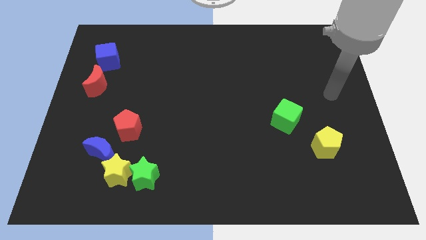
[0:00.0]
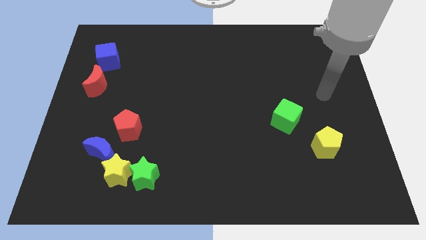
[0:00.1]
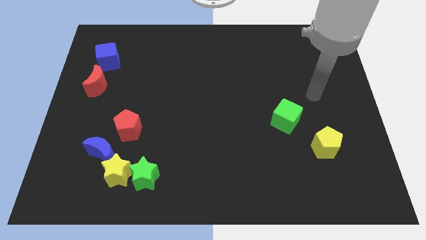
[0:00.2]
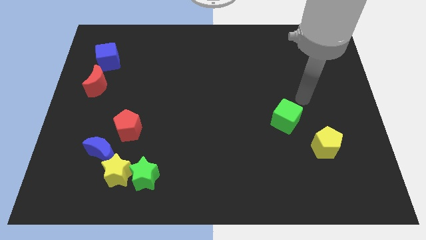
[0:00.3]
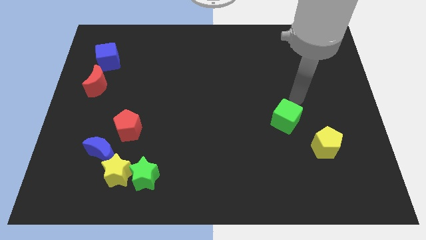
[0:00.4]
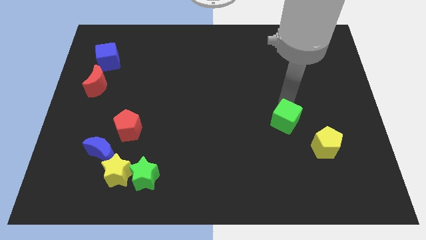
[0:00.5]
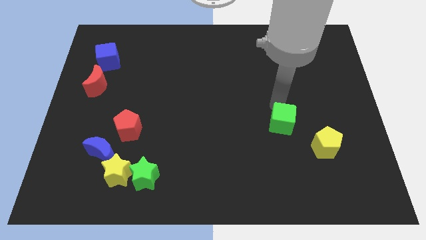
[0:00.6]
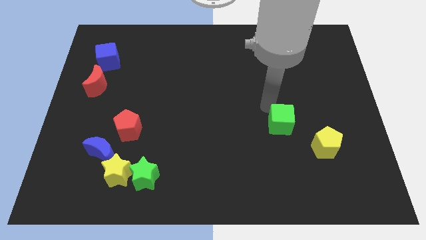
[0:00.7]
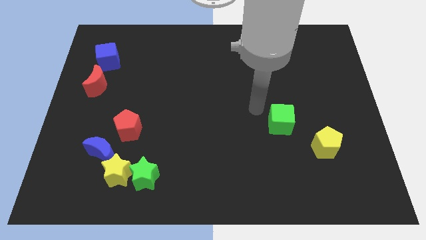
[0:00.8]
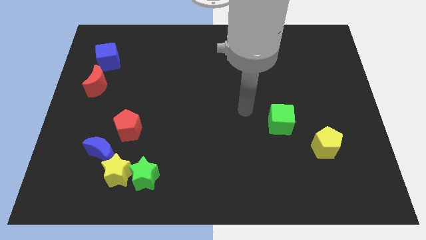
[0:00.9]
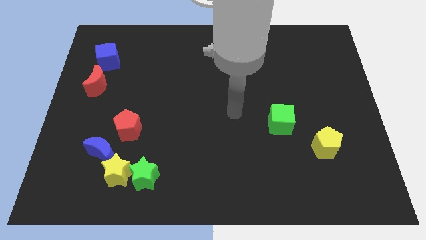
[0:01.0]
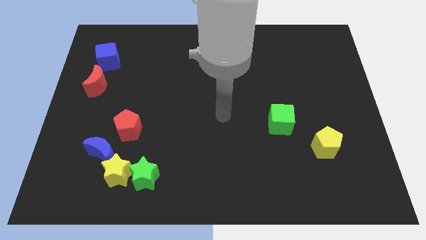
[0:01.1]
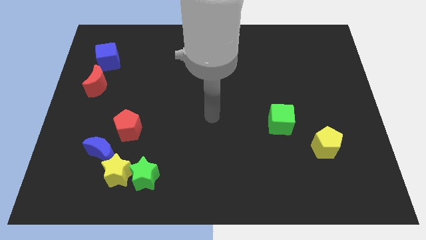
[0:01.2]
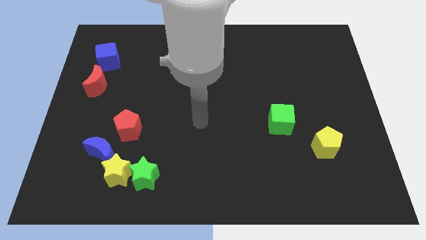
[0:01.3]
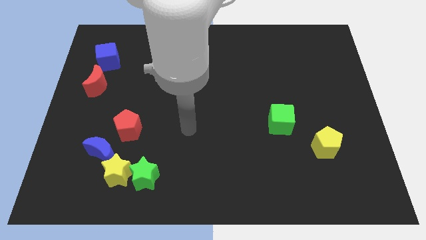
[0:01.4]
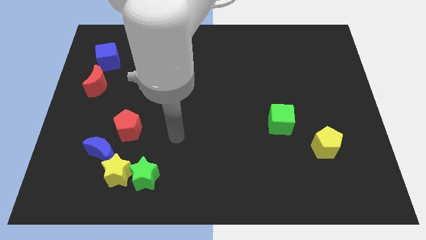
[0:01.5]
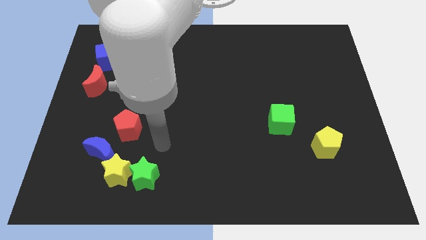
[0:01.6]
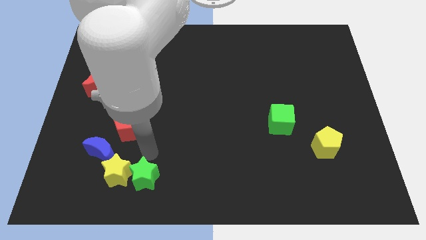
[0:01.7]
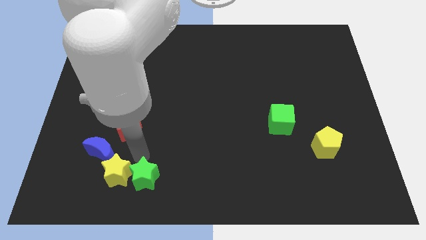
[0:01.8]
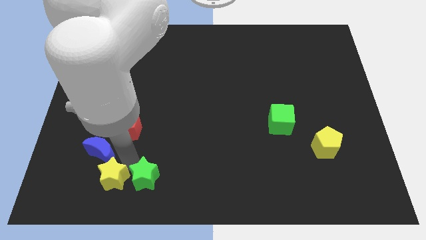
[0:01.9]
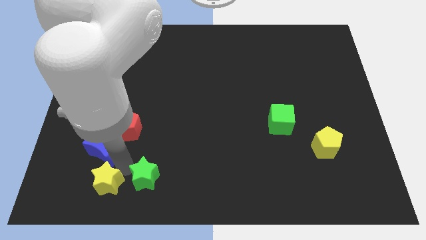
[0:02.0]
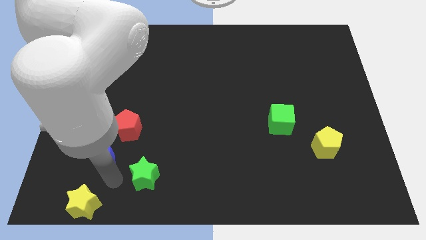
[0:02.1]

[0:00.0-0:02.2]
move the green star away from the yellow star

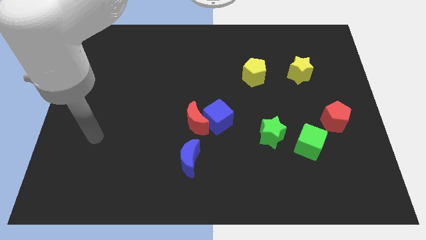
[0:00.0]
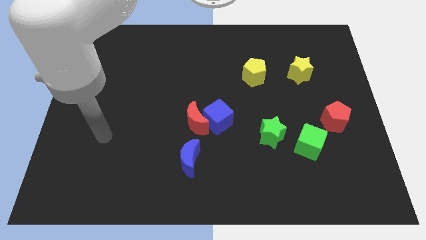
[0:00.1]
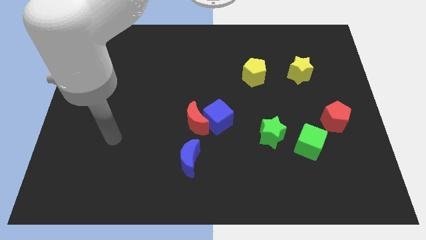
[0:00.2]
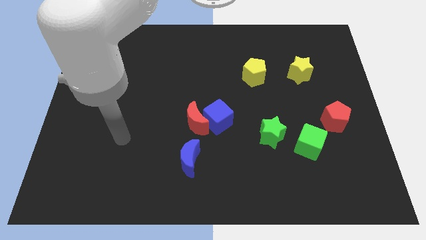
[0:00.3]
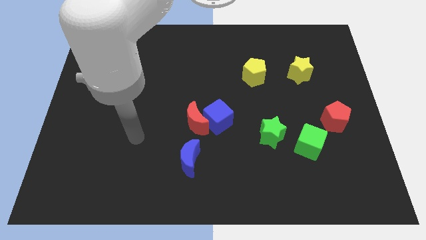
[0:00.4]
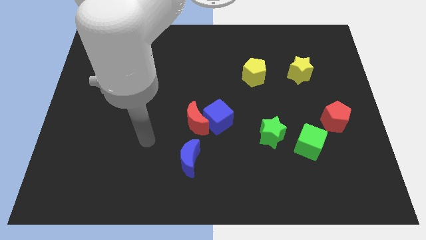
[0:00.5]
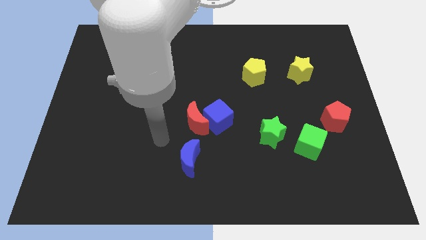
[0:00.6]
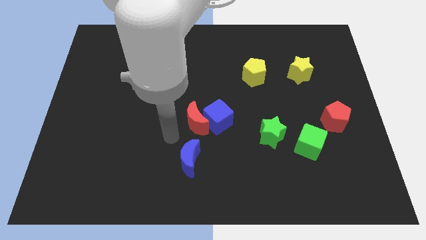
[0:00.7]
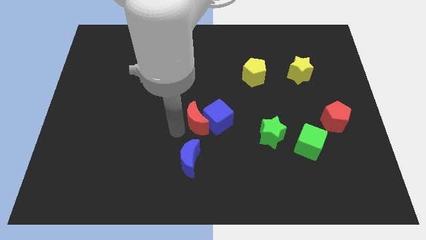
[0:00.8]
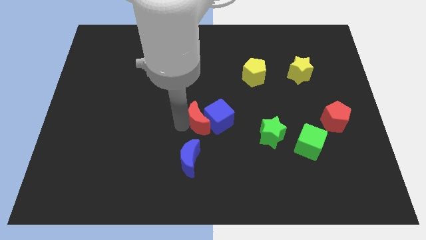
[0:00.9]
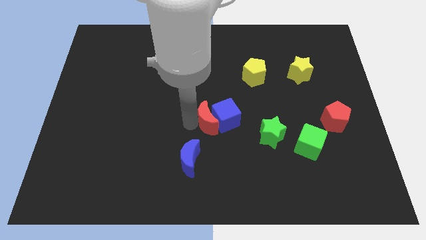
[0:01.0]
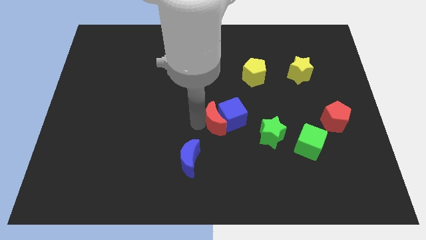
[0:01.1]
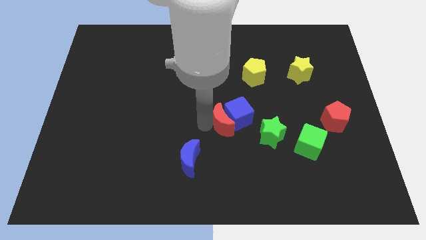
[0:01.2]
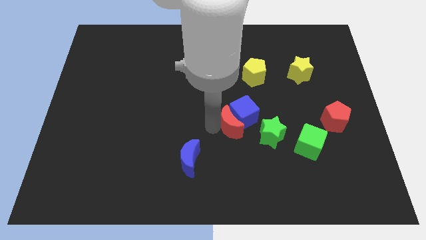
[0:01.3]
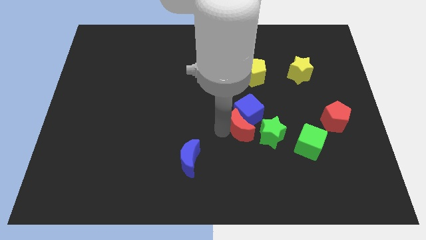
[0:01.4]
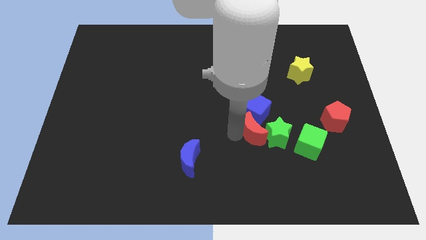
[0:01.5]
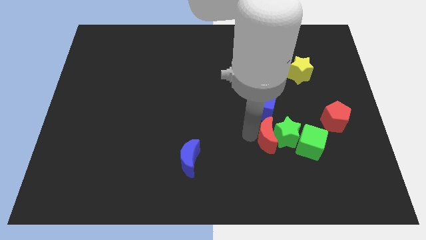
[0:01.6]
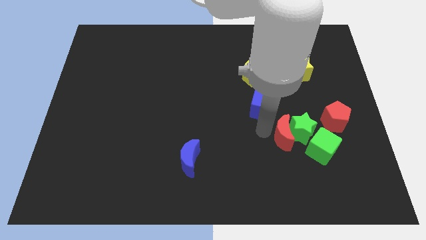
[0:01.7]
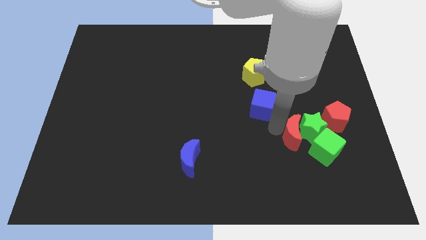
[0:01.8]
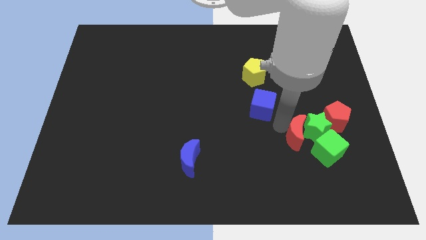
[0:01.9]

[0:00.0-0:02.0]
pull the blue cube apart from the red moon

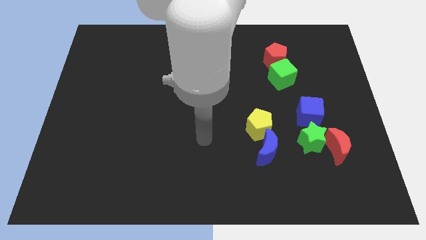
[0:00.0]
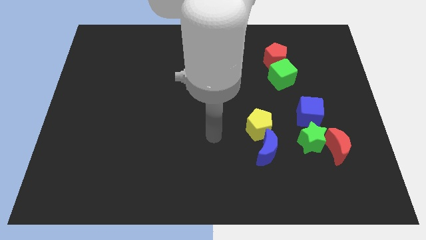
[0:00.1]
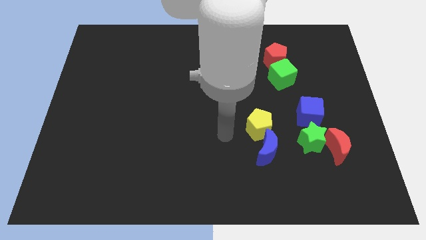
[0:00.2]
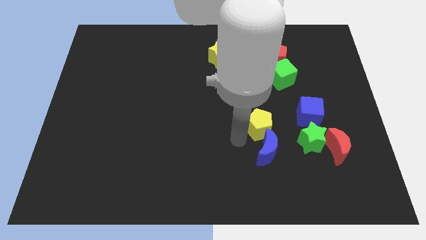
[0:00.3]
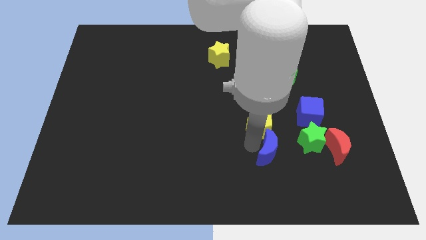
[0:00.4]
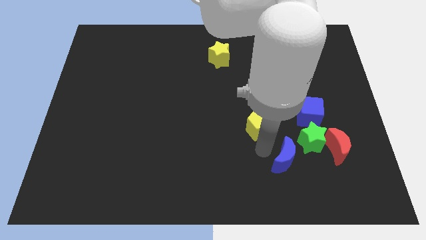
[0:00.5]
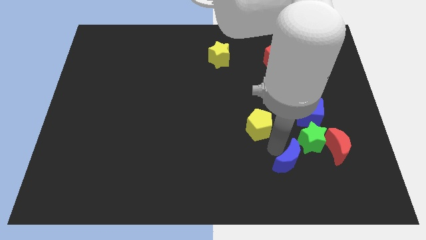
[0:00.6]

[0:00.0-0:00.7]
separate the yellow pentagon from the blue moon

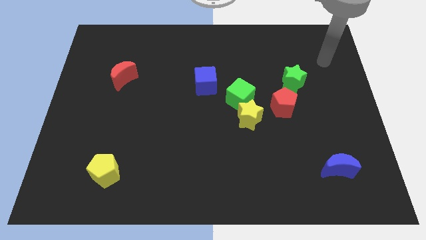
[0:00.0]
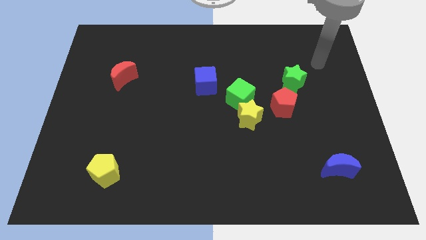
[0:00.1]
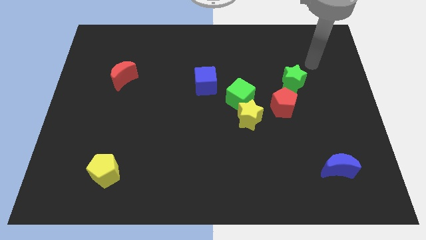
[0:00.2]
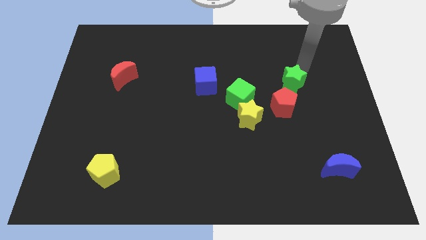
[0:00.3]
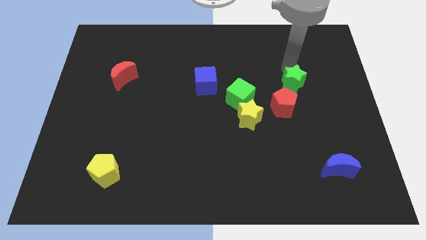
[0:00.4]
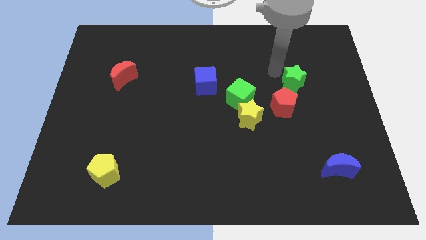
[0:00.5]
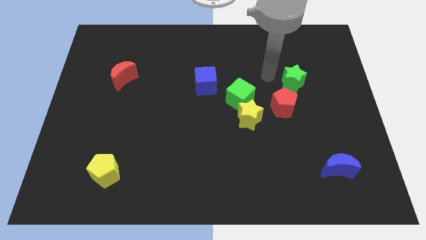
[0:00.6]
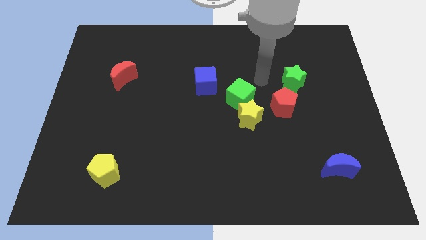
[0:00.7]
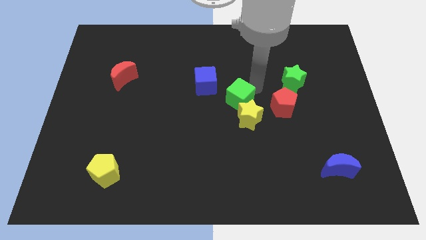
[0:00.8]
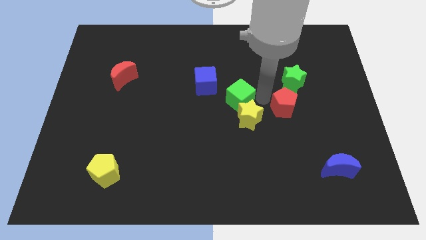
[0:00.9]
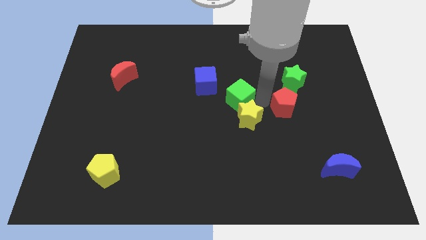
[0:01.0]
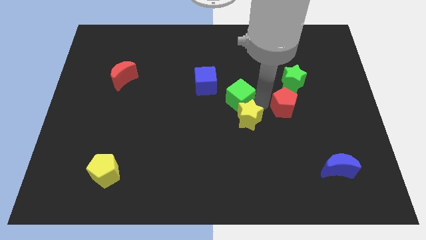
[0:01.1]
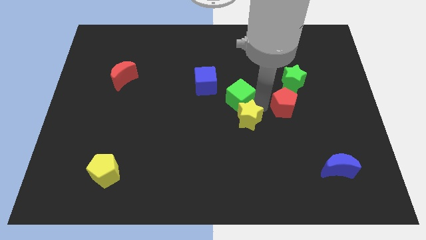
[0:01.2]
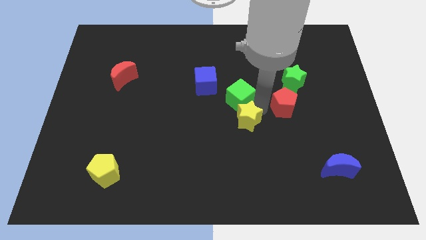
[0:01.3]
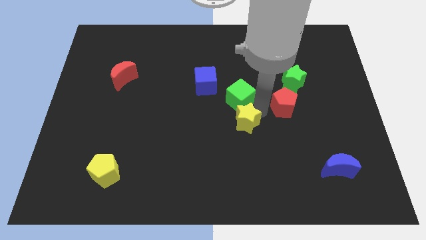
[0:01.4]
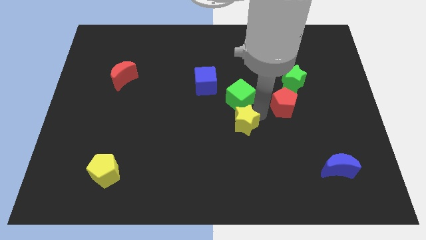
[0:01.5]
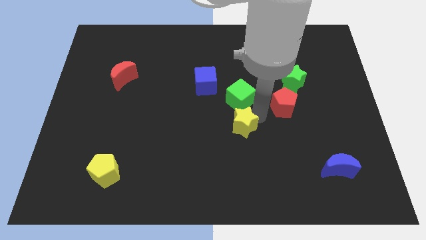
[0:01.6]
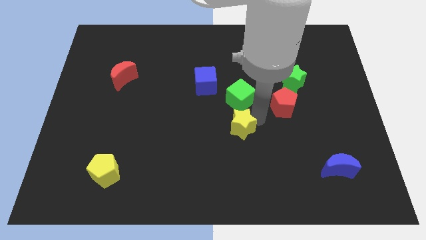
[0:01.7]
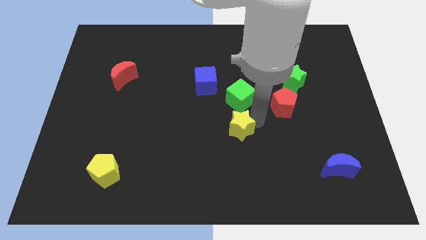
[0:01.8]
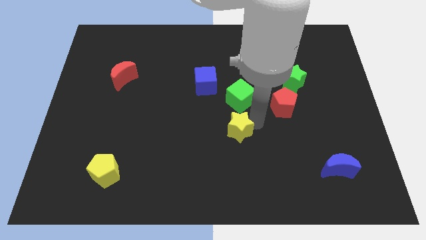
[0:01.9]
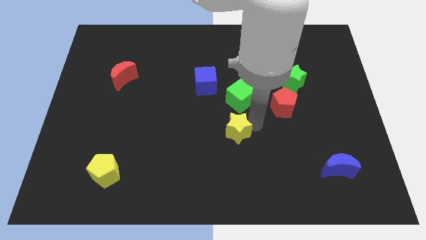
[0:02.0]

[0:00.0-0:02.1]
separate the yellow star from the green cube and red pentagon

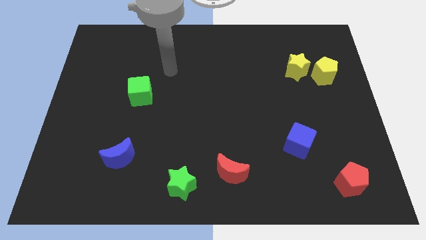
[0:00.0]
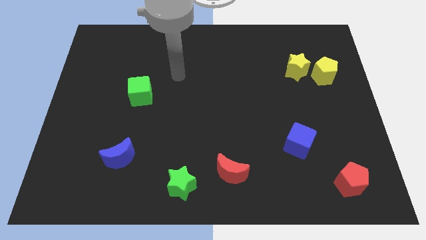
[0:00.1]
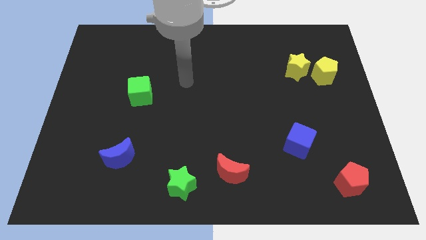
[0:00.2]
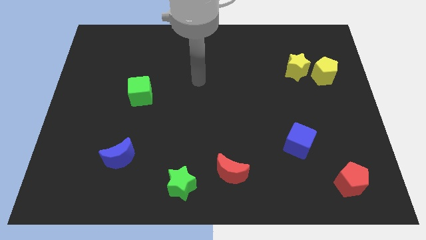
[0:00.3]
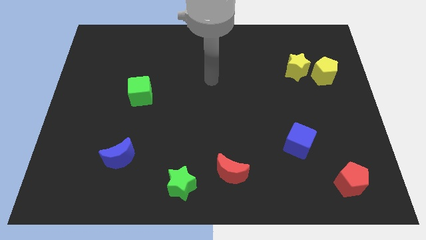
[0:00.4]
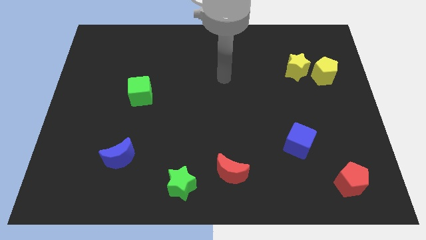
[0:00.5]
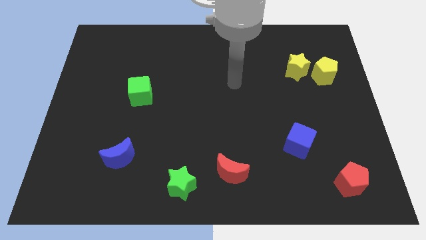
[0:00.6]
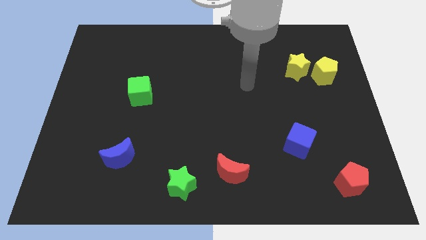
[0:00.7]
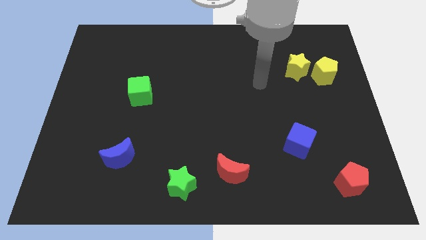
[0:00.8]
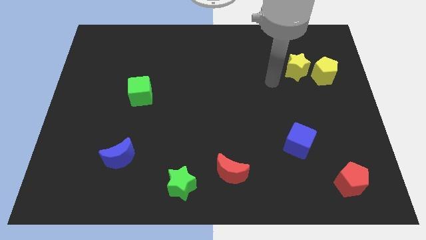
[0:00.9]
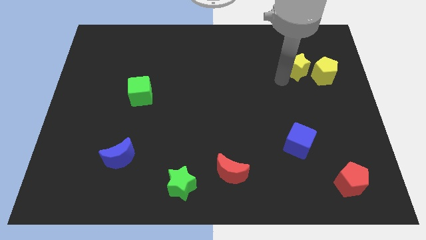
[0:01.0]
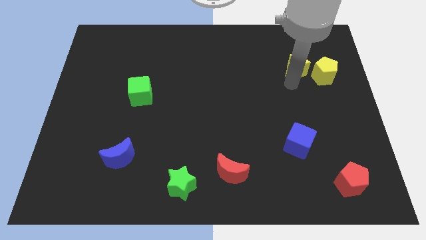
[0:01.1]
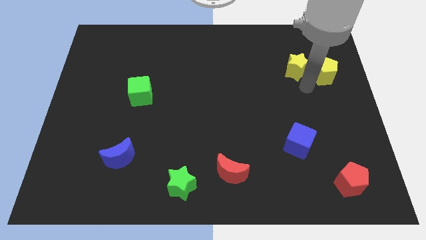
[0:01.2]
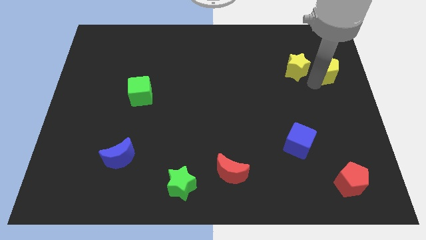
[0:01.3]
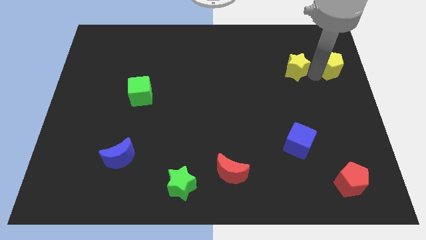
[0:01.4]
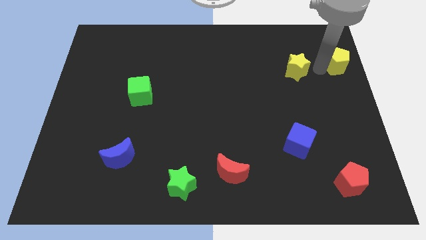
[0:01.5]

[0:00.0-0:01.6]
move the yellow star away from the yellow pentagon

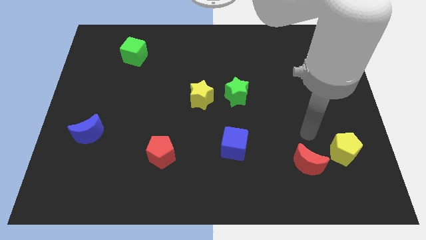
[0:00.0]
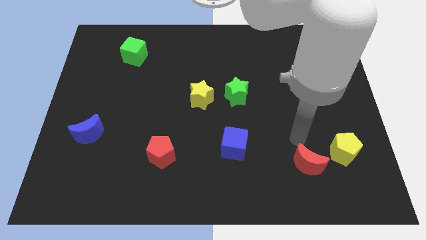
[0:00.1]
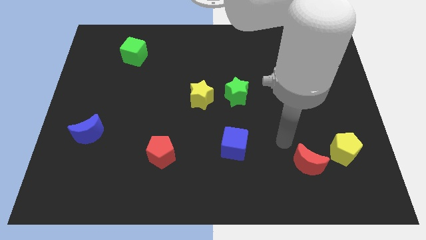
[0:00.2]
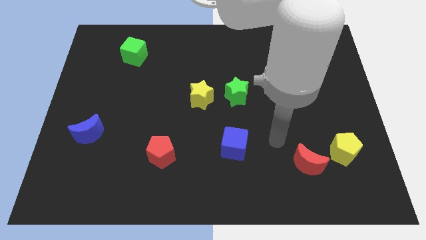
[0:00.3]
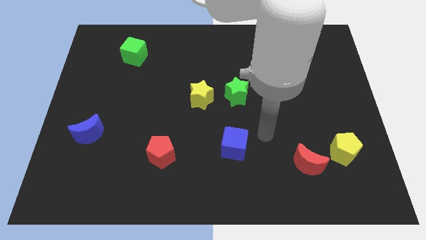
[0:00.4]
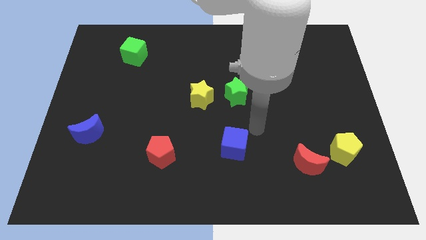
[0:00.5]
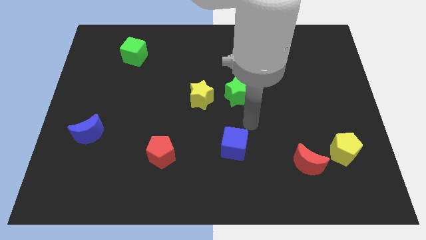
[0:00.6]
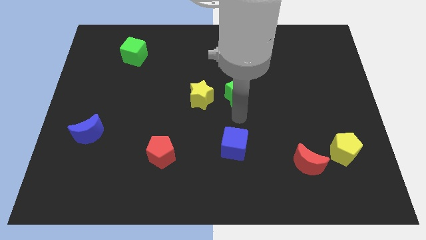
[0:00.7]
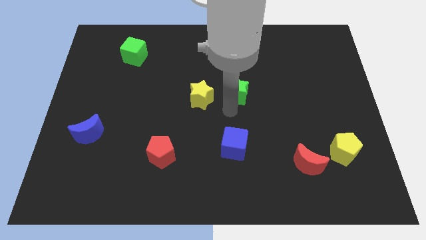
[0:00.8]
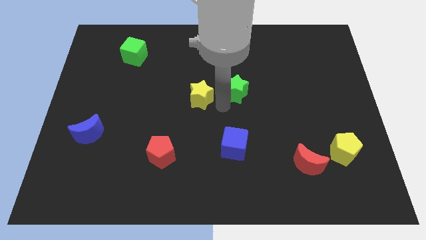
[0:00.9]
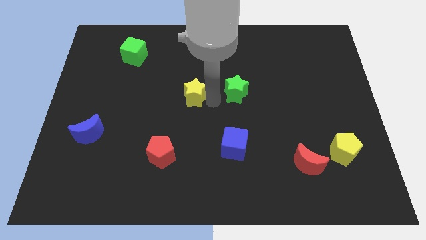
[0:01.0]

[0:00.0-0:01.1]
separate the green star from the yellow star
